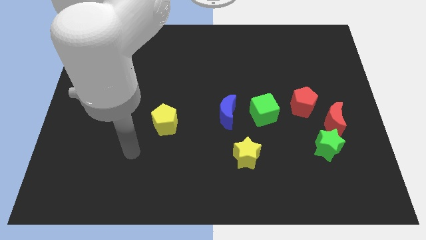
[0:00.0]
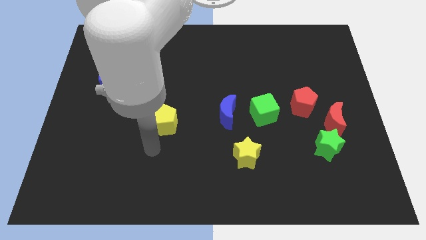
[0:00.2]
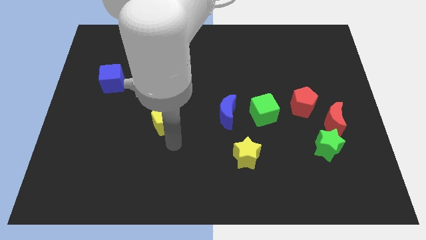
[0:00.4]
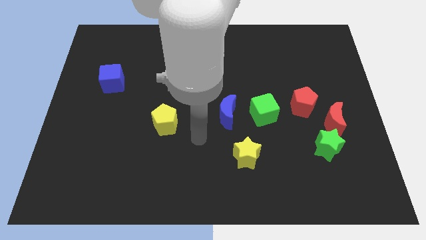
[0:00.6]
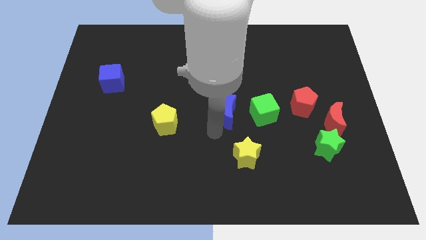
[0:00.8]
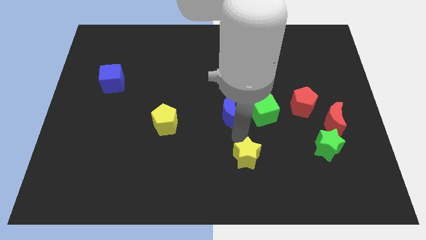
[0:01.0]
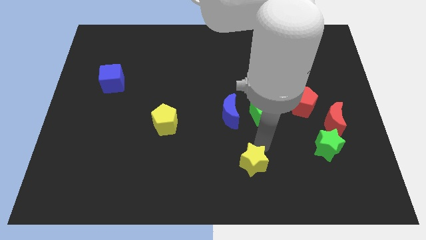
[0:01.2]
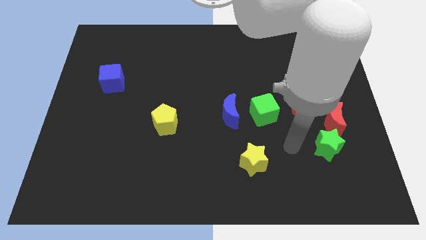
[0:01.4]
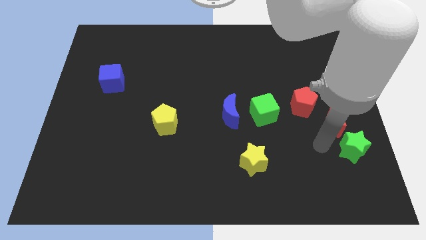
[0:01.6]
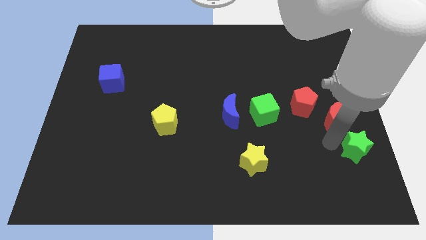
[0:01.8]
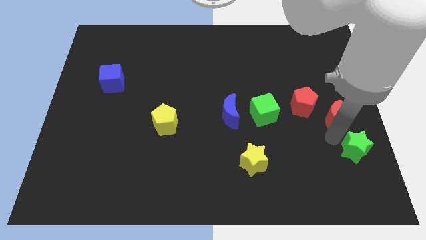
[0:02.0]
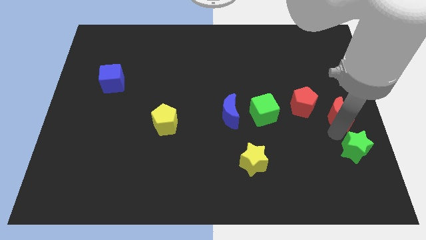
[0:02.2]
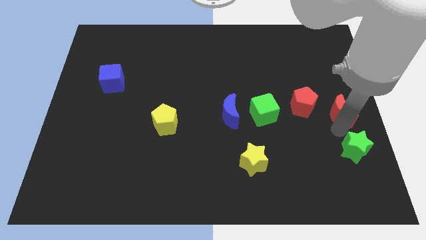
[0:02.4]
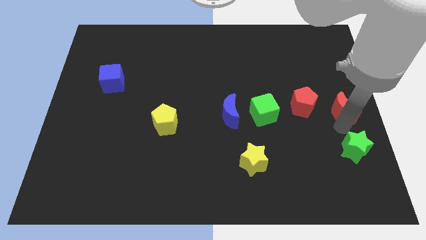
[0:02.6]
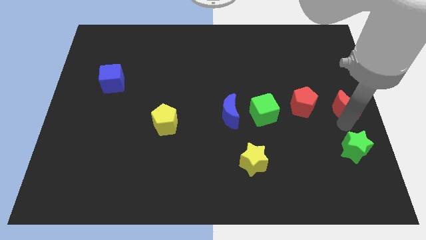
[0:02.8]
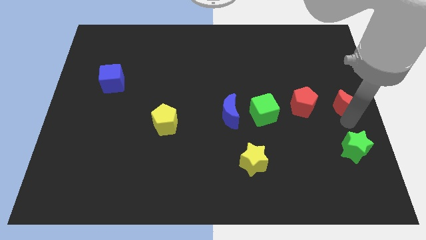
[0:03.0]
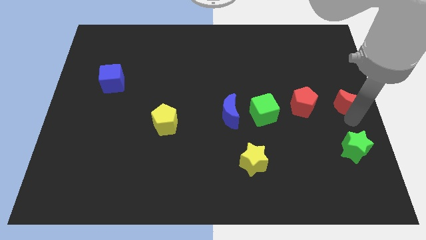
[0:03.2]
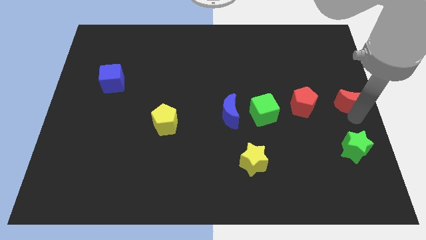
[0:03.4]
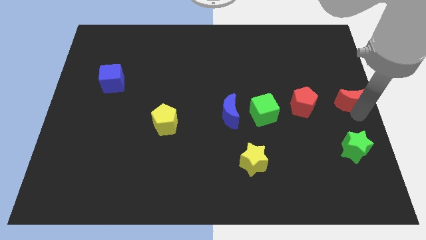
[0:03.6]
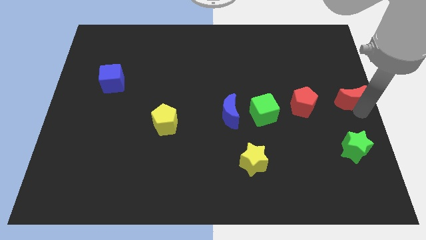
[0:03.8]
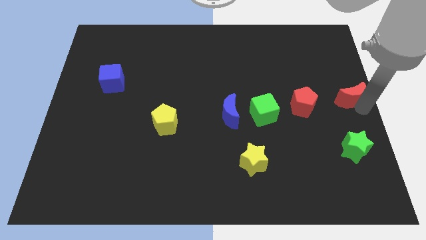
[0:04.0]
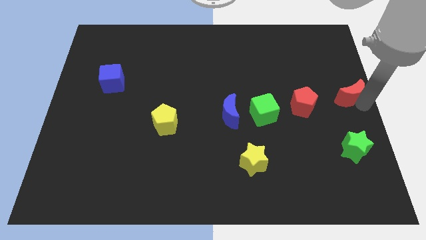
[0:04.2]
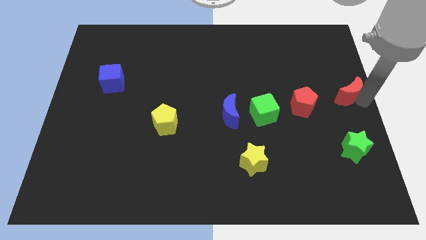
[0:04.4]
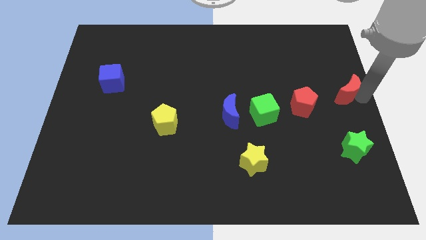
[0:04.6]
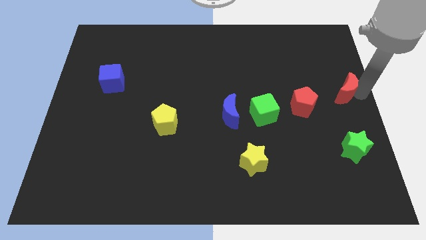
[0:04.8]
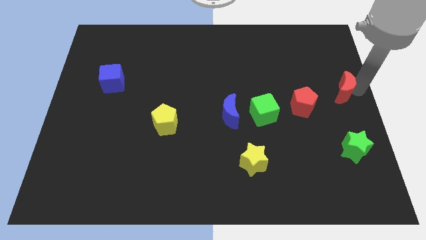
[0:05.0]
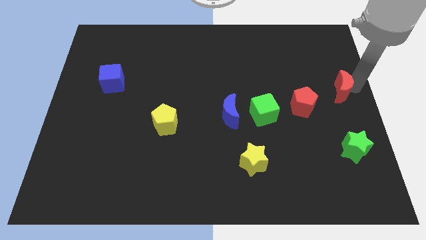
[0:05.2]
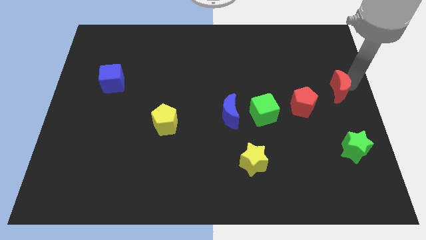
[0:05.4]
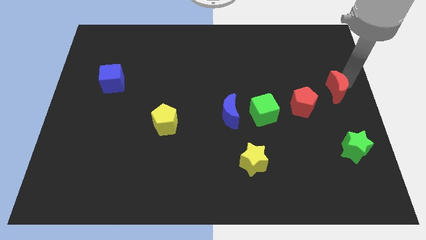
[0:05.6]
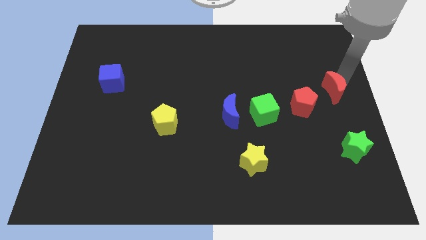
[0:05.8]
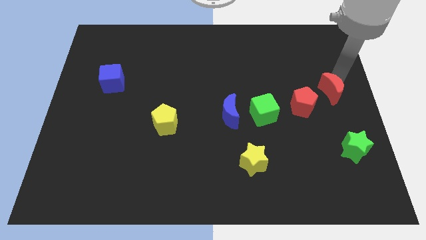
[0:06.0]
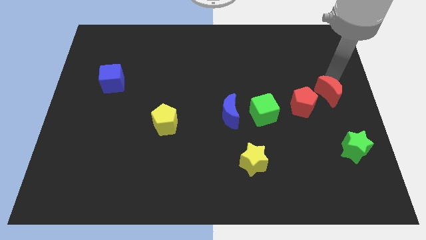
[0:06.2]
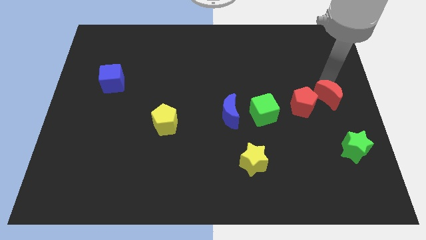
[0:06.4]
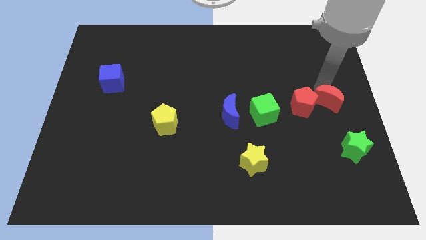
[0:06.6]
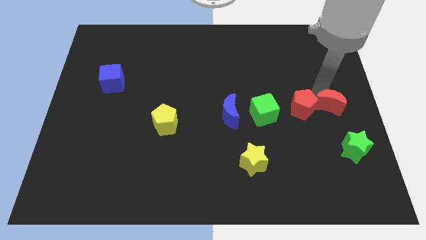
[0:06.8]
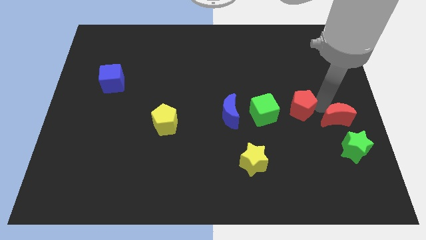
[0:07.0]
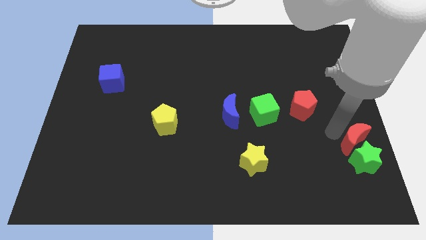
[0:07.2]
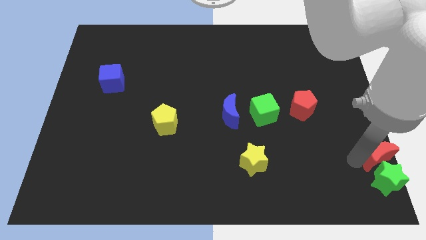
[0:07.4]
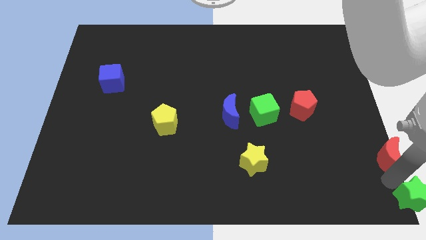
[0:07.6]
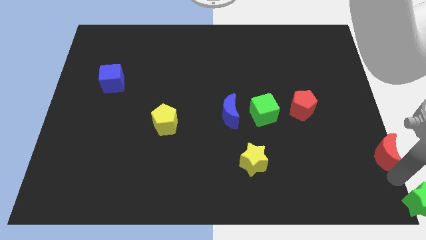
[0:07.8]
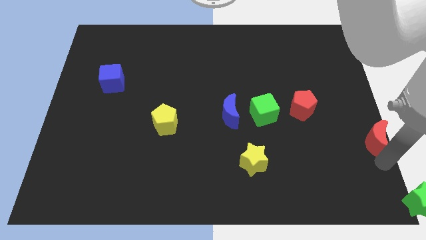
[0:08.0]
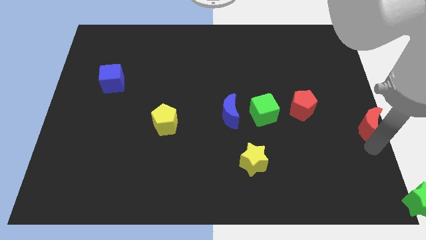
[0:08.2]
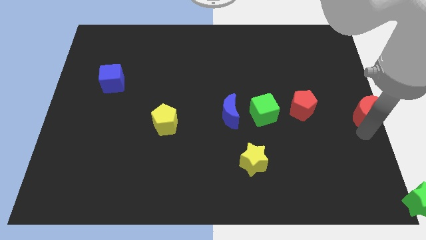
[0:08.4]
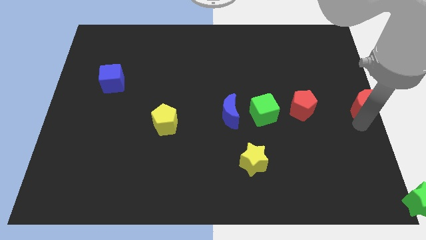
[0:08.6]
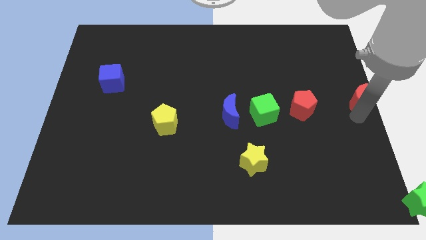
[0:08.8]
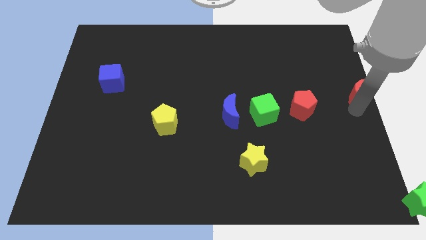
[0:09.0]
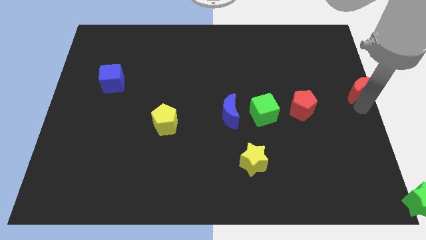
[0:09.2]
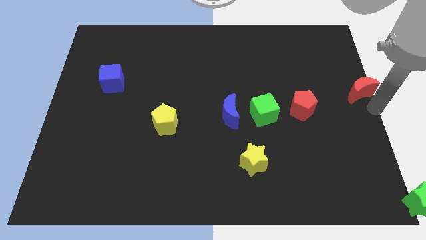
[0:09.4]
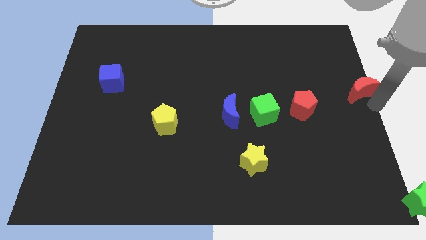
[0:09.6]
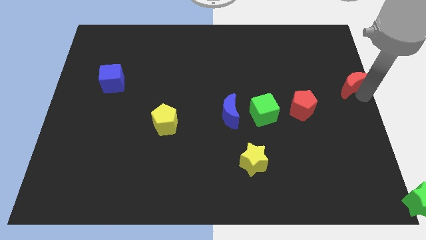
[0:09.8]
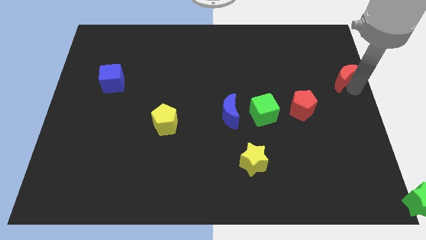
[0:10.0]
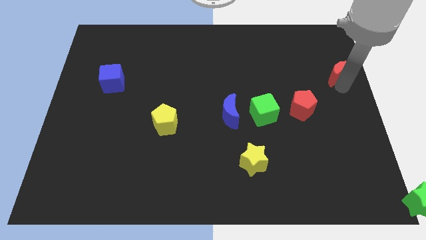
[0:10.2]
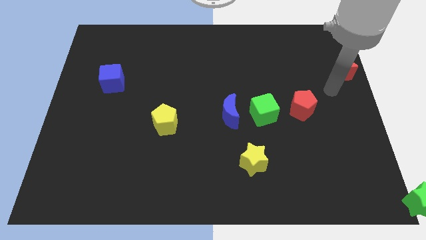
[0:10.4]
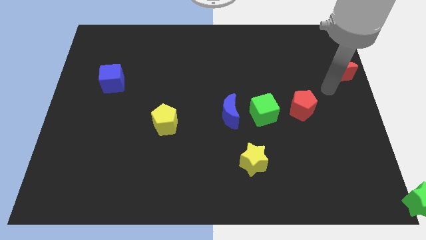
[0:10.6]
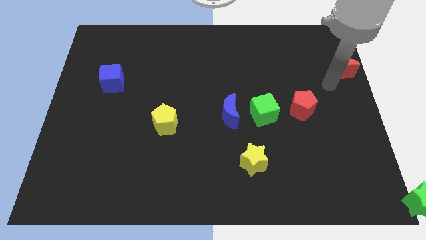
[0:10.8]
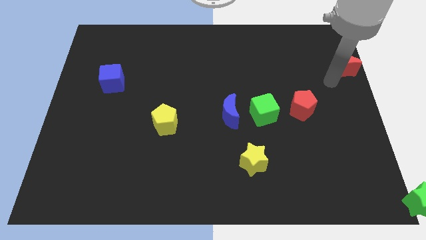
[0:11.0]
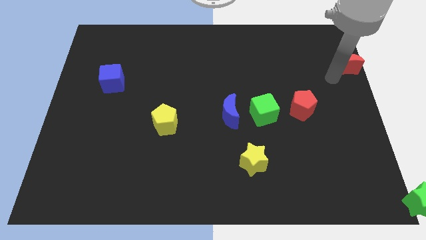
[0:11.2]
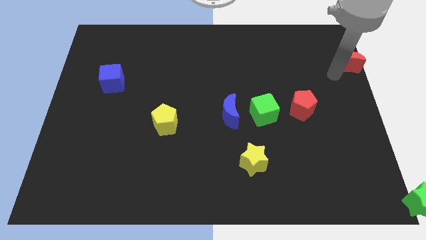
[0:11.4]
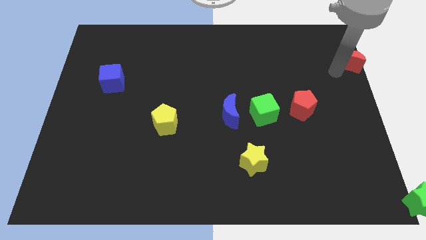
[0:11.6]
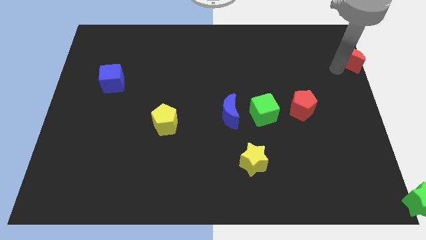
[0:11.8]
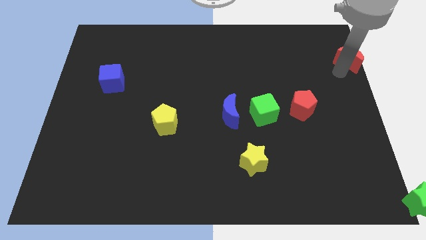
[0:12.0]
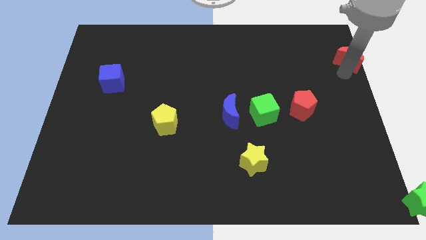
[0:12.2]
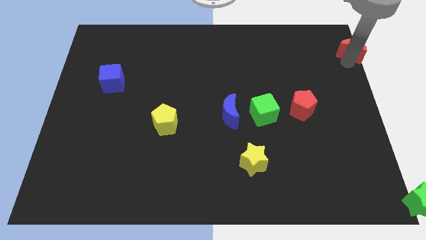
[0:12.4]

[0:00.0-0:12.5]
put the red moon to the top right corner
